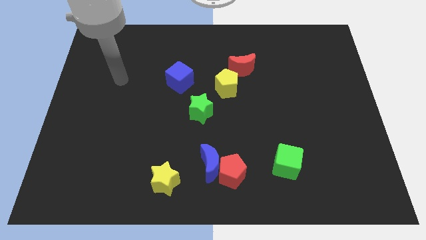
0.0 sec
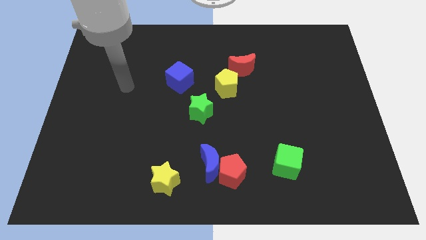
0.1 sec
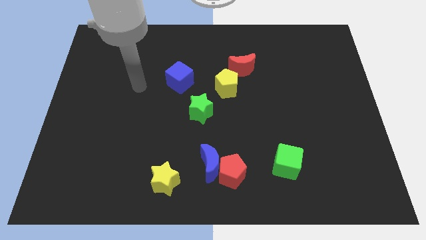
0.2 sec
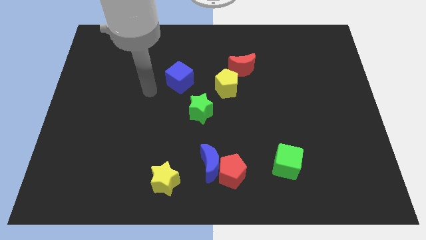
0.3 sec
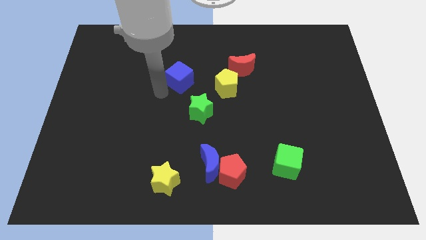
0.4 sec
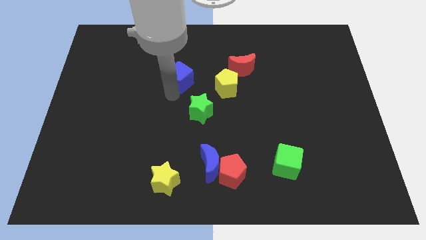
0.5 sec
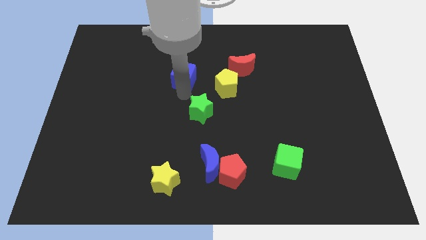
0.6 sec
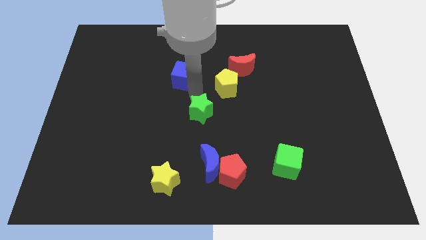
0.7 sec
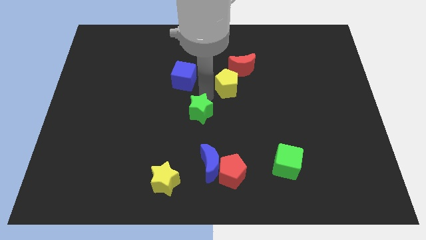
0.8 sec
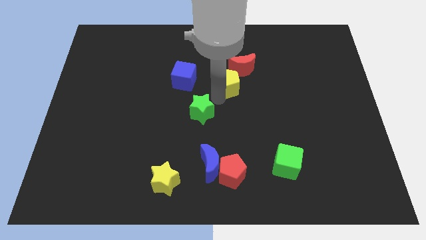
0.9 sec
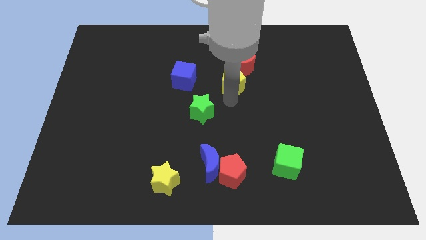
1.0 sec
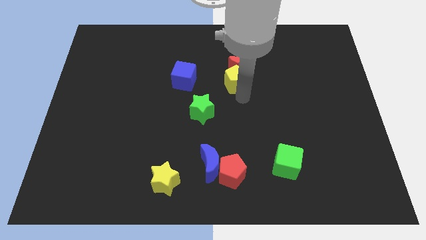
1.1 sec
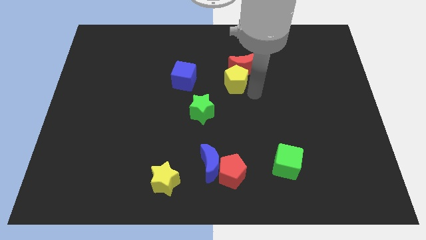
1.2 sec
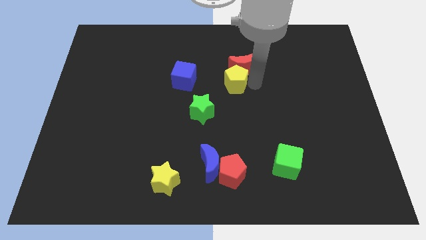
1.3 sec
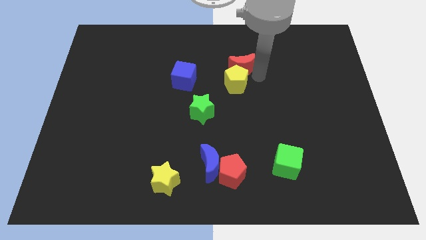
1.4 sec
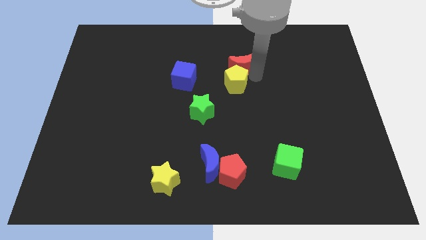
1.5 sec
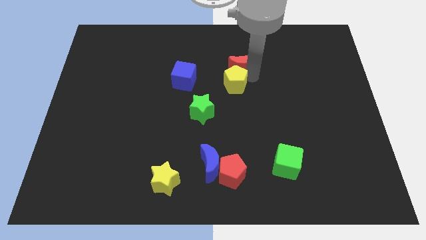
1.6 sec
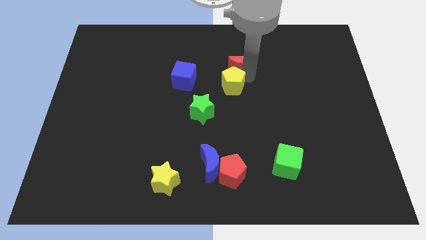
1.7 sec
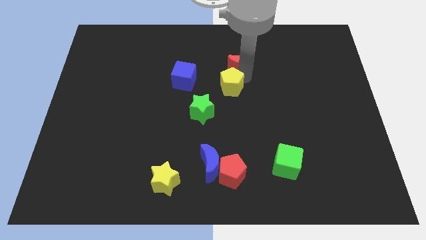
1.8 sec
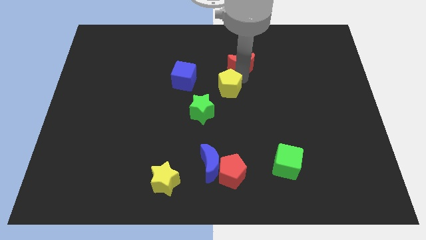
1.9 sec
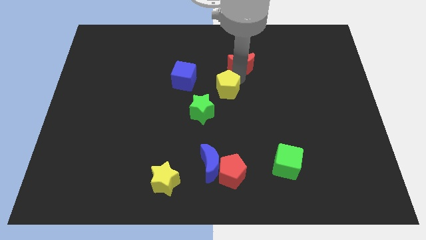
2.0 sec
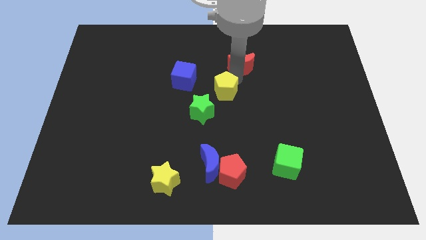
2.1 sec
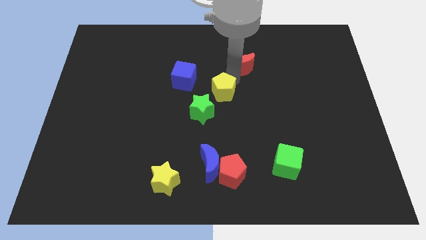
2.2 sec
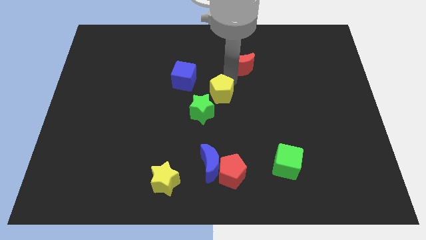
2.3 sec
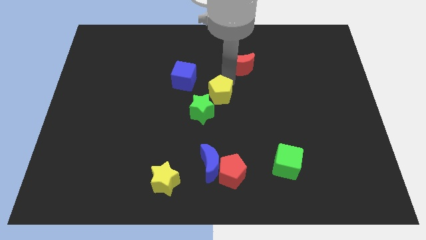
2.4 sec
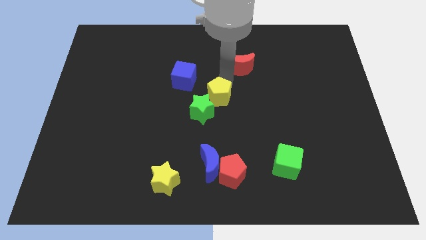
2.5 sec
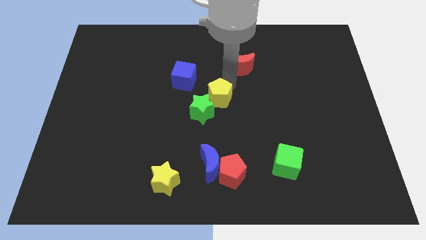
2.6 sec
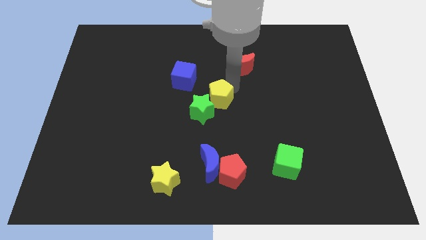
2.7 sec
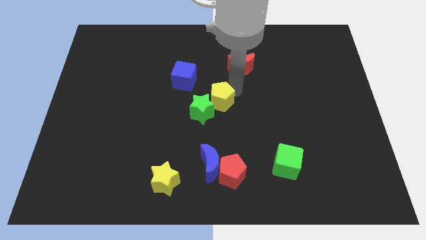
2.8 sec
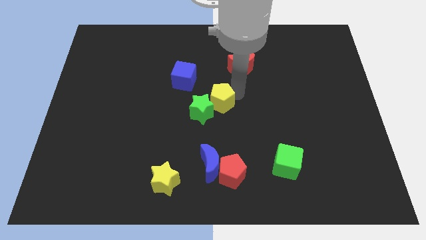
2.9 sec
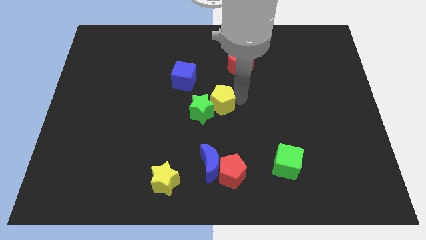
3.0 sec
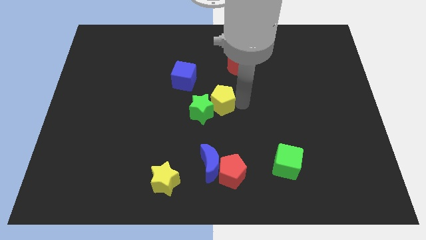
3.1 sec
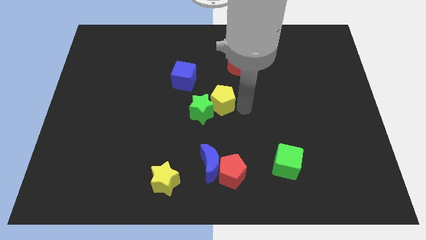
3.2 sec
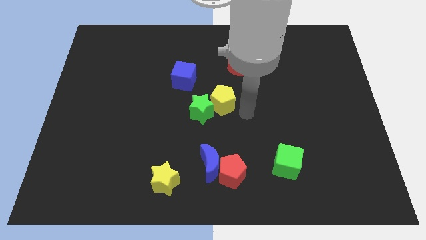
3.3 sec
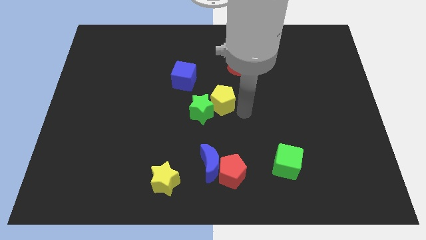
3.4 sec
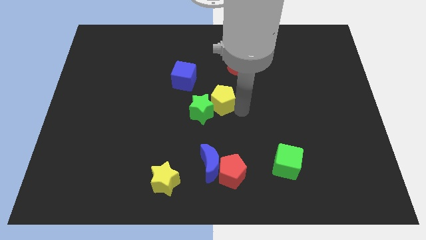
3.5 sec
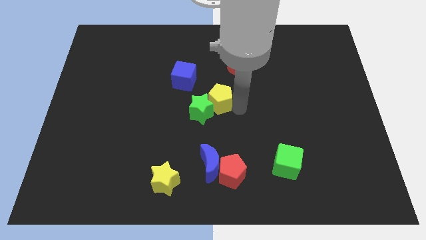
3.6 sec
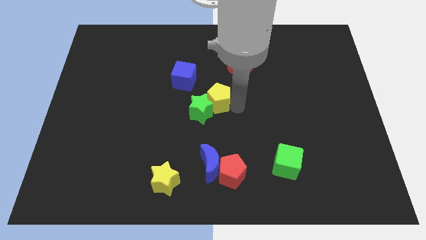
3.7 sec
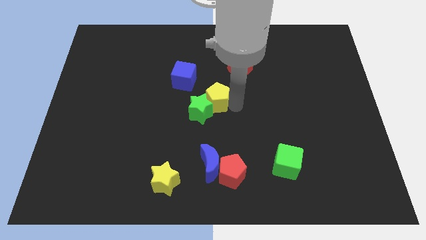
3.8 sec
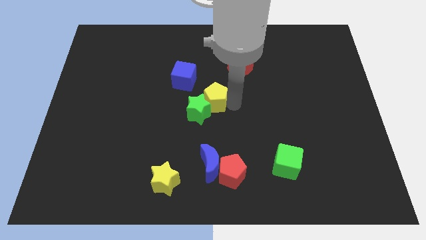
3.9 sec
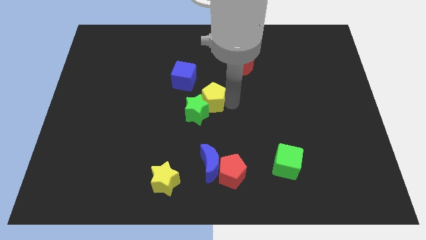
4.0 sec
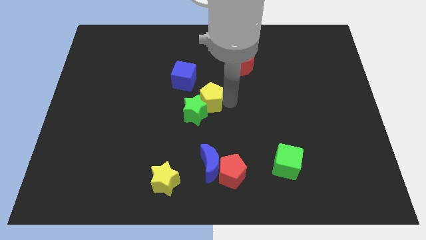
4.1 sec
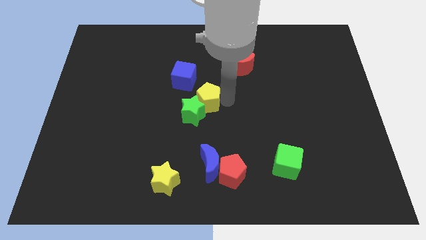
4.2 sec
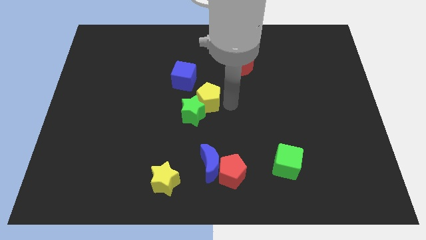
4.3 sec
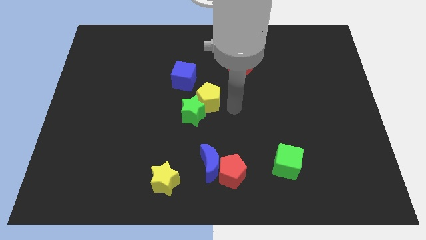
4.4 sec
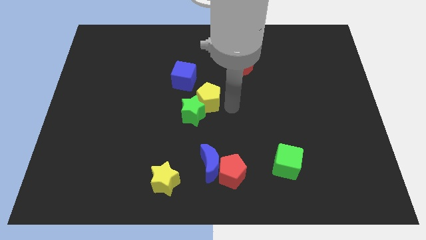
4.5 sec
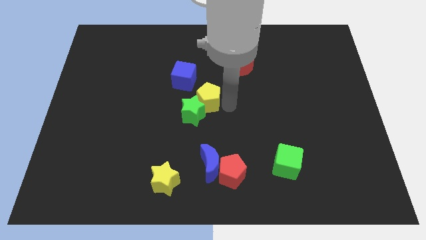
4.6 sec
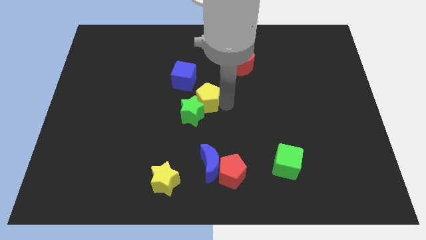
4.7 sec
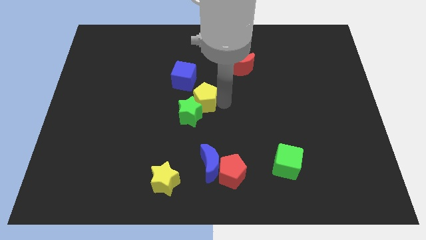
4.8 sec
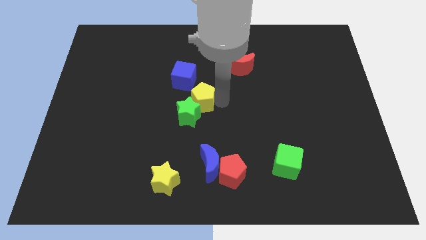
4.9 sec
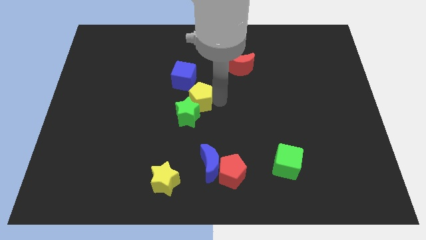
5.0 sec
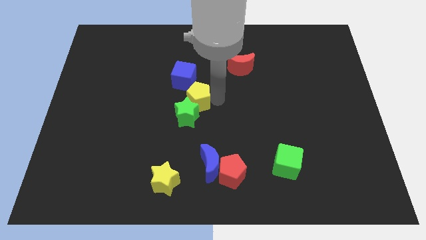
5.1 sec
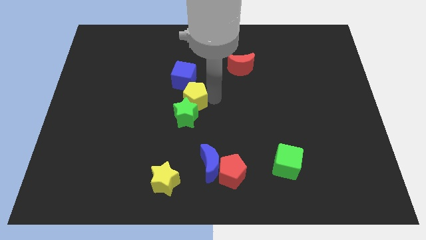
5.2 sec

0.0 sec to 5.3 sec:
slide the yellow pentagon left slightly

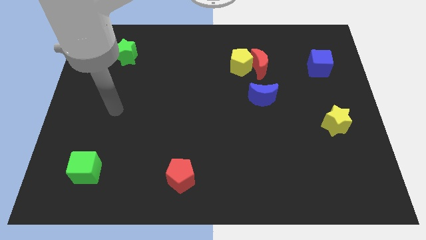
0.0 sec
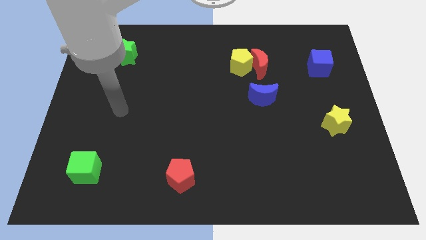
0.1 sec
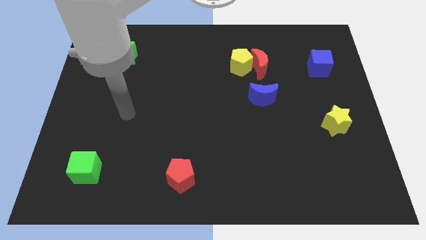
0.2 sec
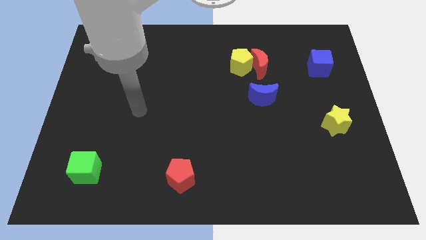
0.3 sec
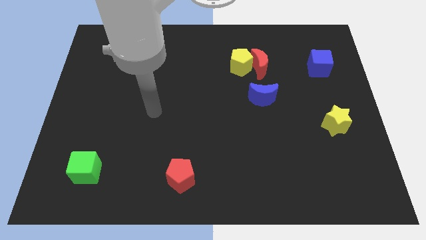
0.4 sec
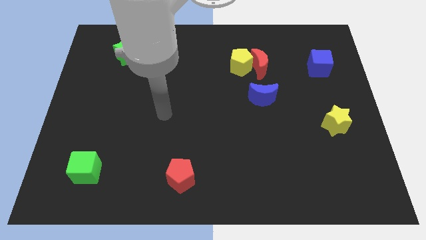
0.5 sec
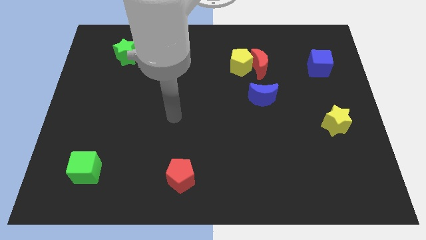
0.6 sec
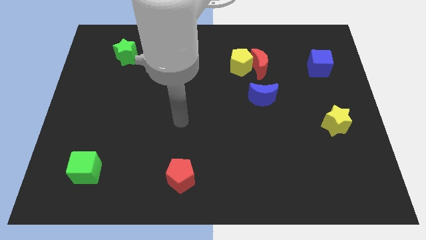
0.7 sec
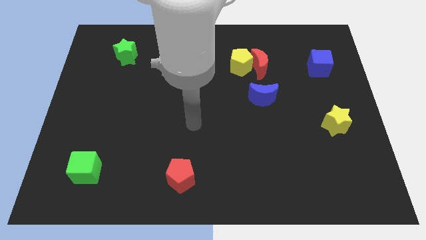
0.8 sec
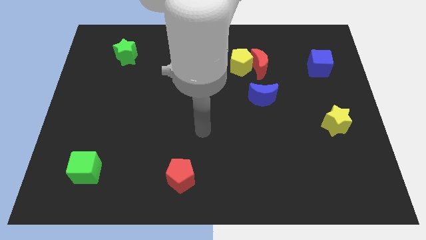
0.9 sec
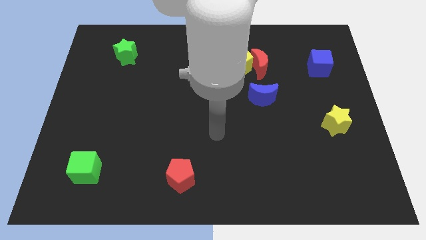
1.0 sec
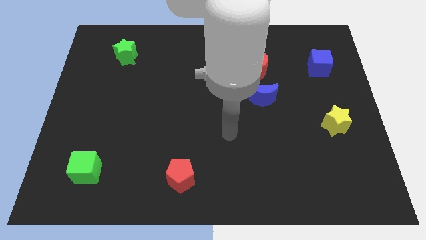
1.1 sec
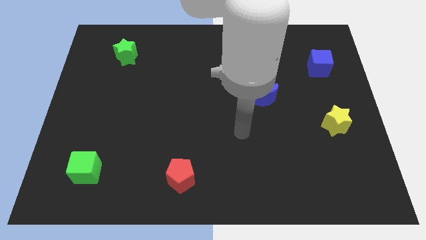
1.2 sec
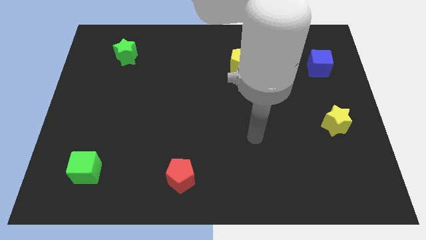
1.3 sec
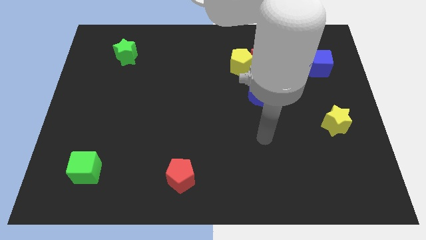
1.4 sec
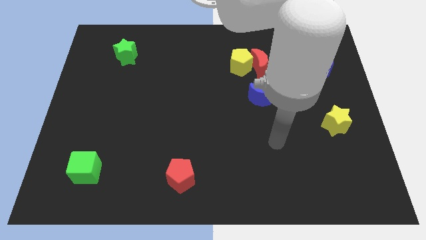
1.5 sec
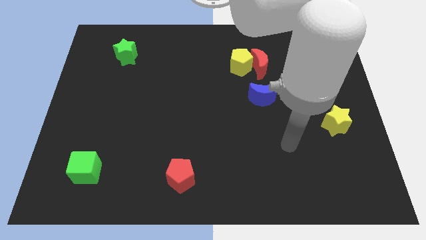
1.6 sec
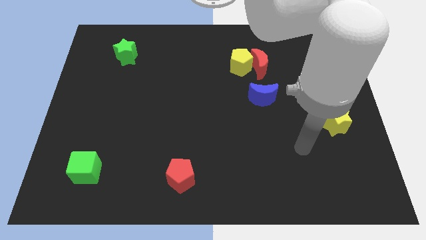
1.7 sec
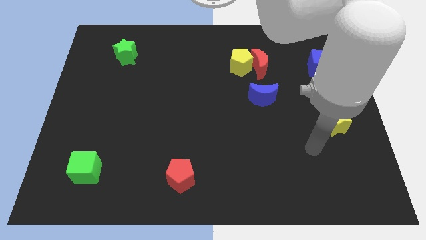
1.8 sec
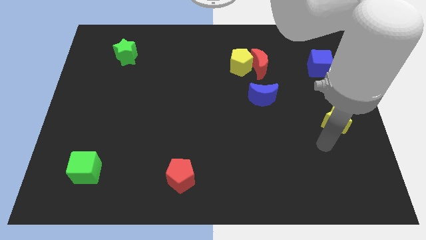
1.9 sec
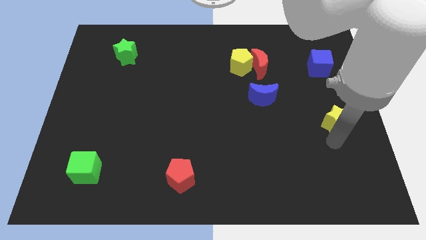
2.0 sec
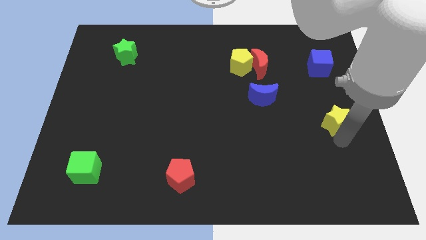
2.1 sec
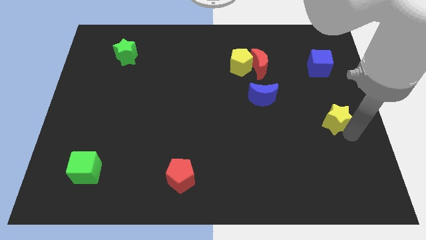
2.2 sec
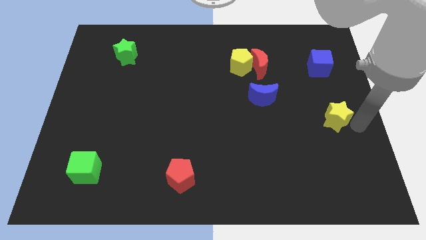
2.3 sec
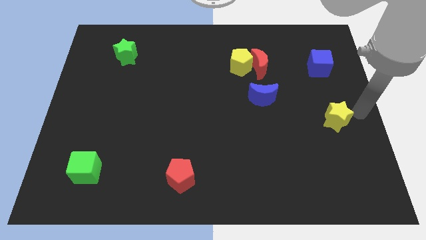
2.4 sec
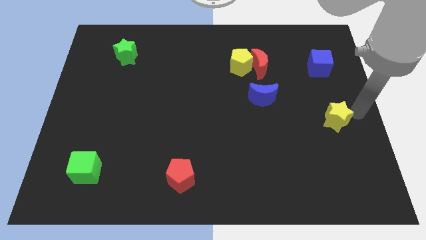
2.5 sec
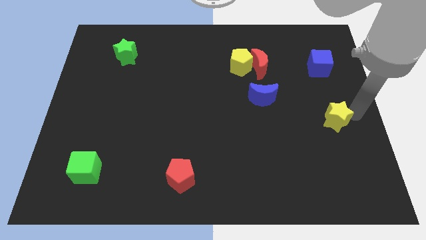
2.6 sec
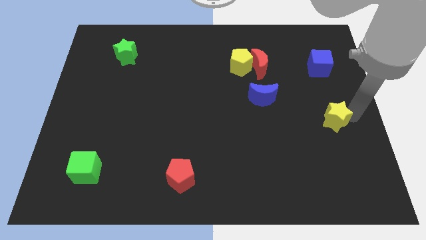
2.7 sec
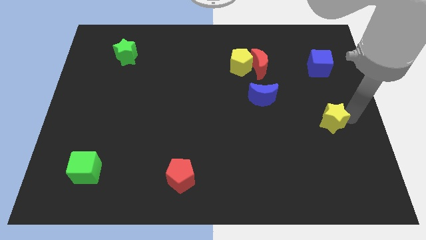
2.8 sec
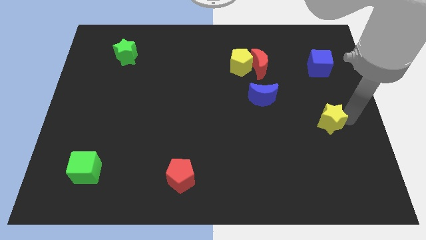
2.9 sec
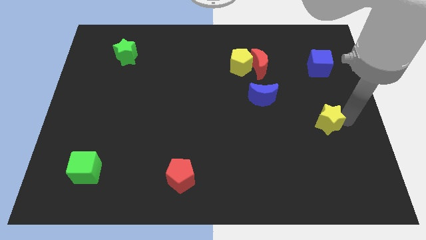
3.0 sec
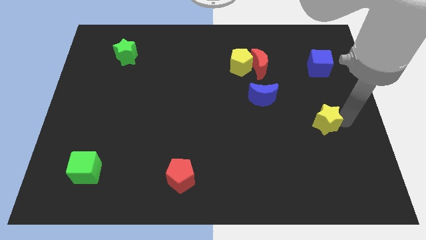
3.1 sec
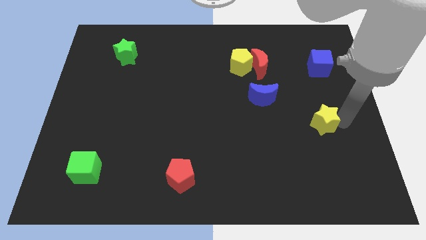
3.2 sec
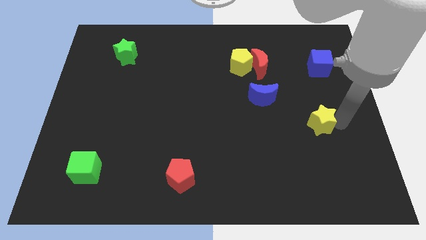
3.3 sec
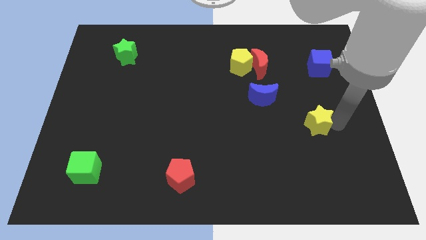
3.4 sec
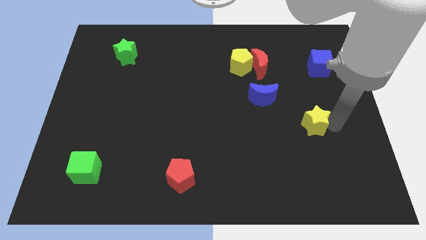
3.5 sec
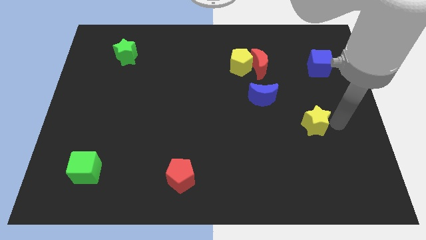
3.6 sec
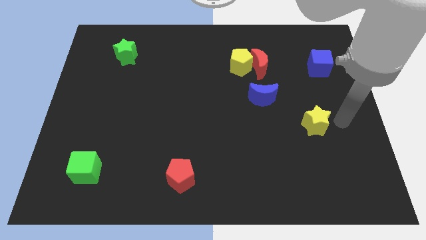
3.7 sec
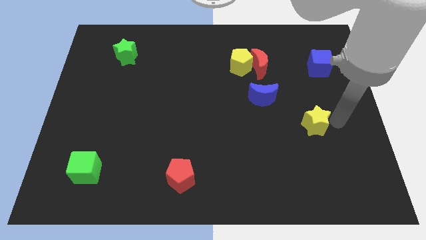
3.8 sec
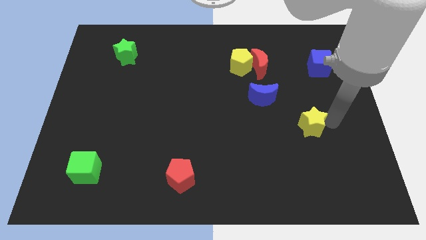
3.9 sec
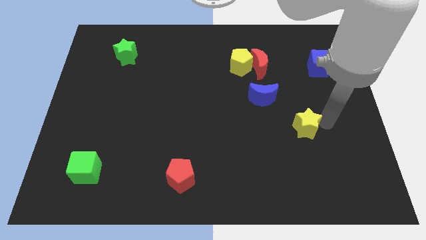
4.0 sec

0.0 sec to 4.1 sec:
push the yellow star left somewhat
